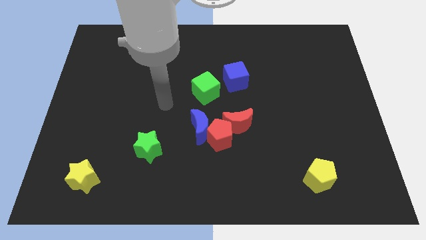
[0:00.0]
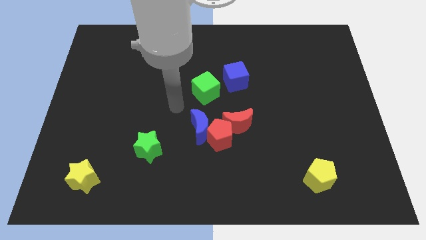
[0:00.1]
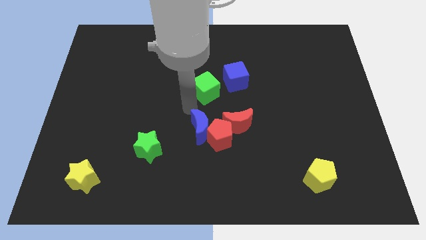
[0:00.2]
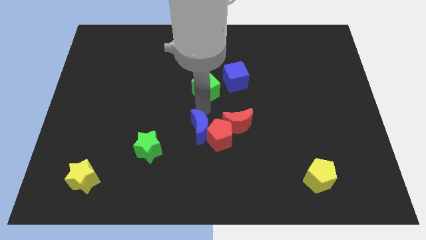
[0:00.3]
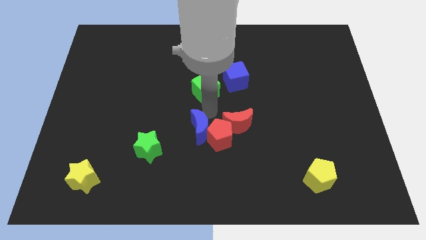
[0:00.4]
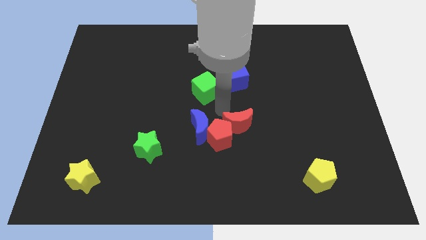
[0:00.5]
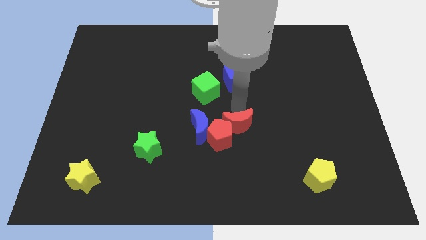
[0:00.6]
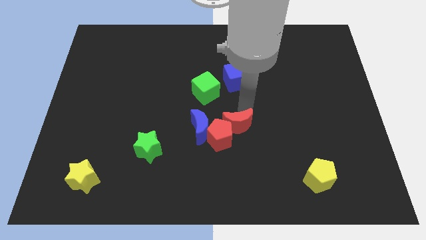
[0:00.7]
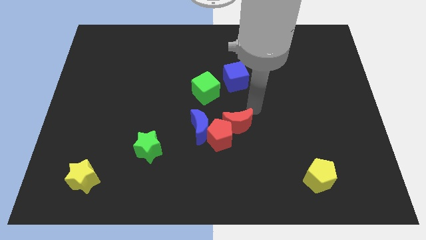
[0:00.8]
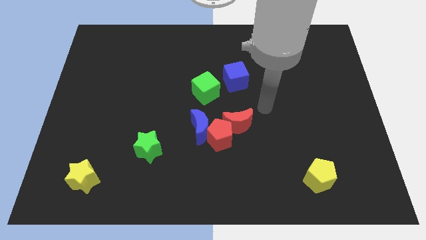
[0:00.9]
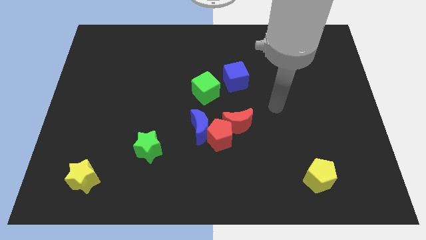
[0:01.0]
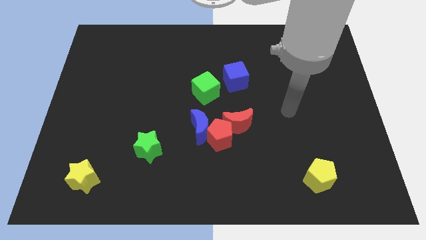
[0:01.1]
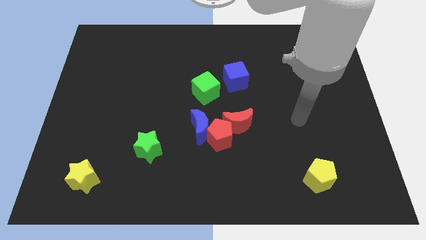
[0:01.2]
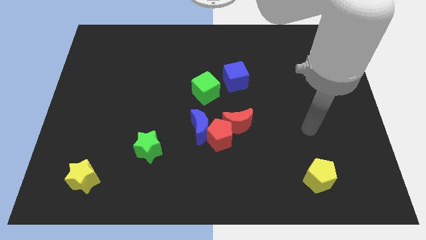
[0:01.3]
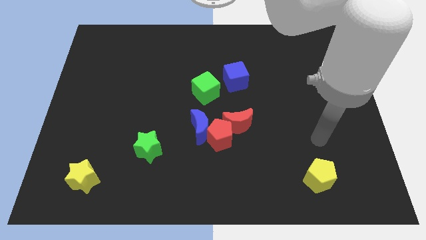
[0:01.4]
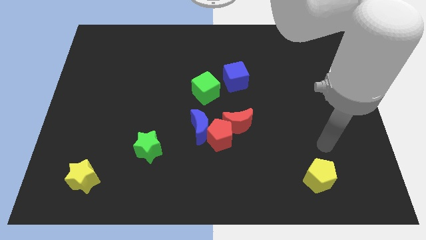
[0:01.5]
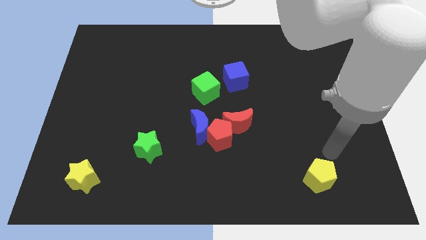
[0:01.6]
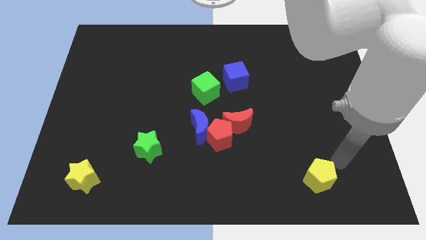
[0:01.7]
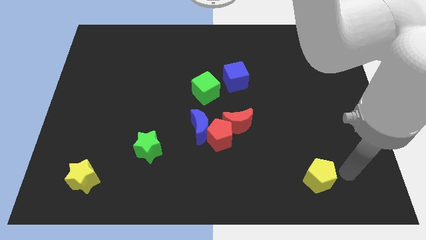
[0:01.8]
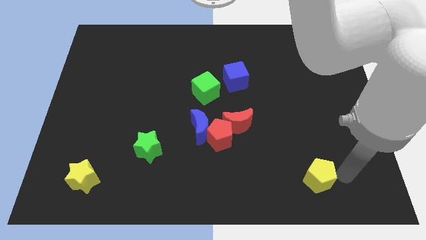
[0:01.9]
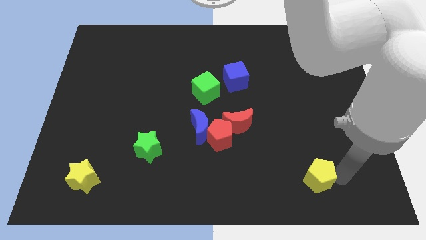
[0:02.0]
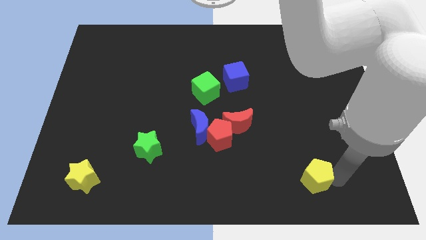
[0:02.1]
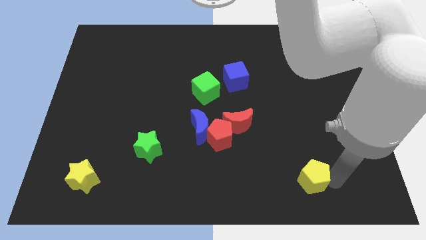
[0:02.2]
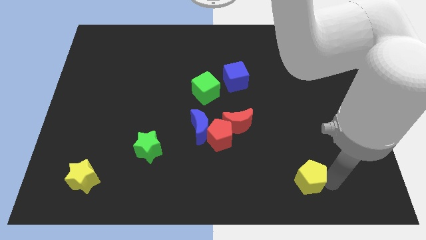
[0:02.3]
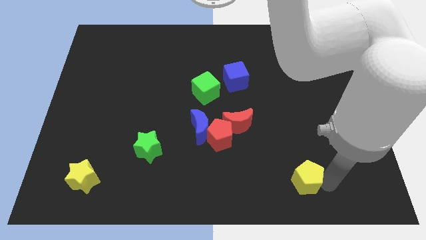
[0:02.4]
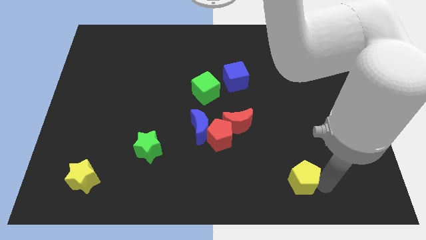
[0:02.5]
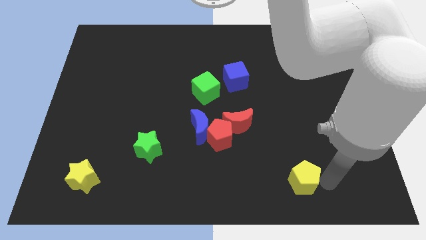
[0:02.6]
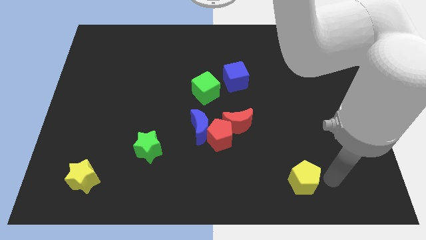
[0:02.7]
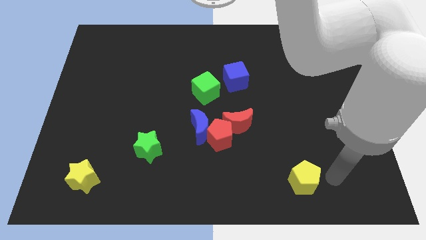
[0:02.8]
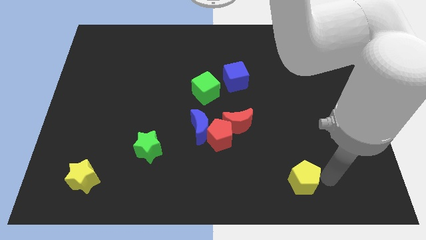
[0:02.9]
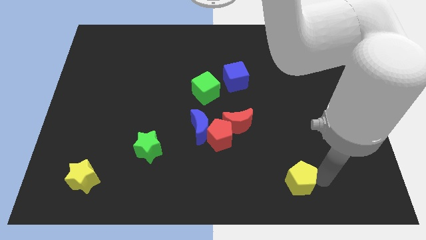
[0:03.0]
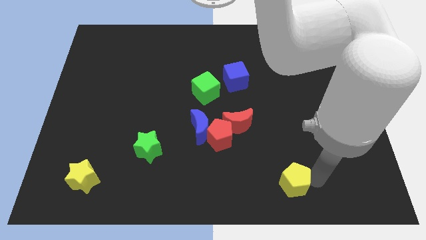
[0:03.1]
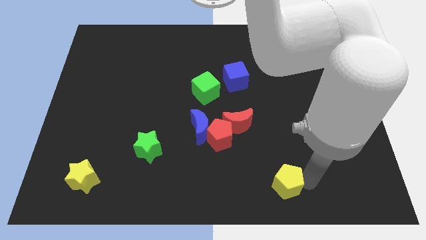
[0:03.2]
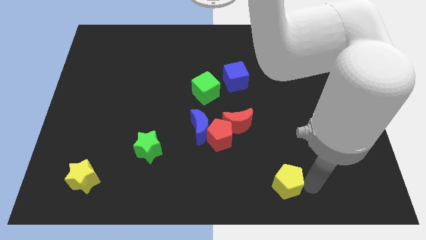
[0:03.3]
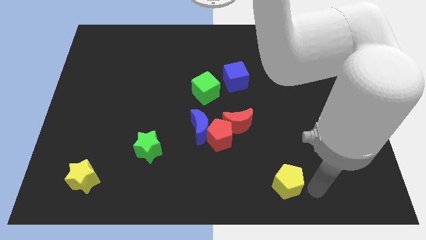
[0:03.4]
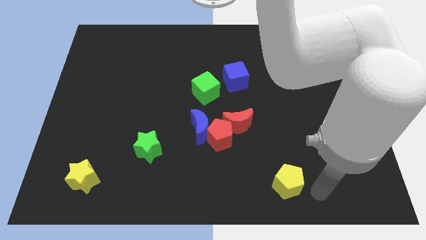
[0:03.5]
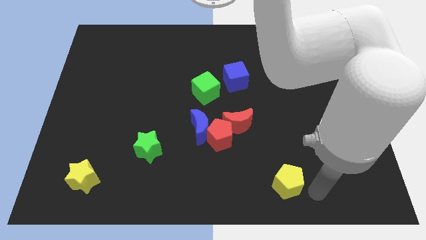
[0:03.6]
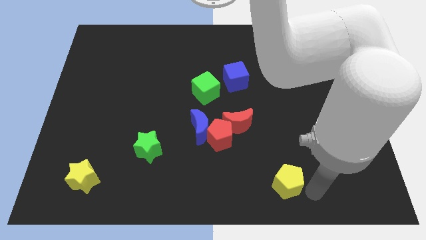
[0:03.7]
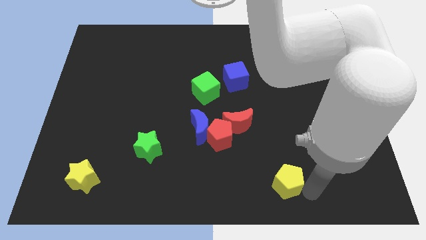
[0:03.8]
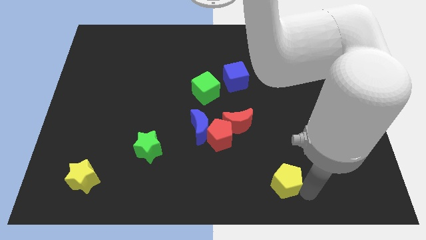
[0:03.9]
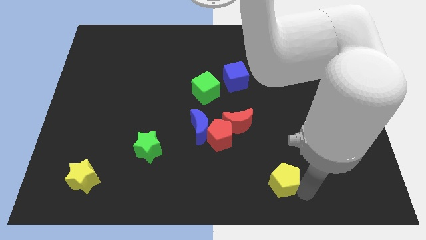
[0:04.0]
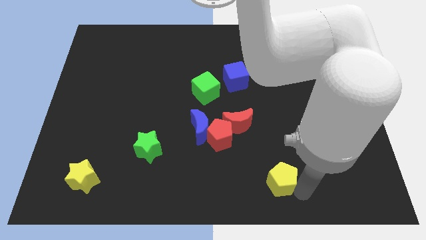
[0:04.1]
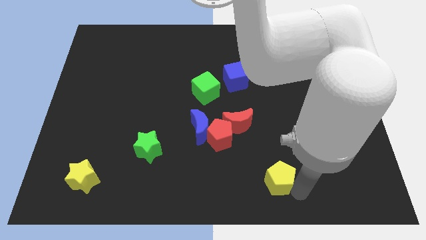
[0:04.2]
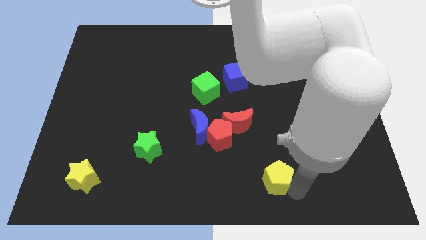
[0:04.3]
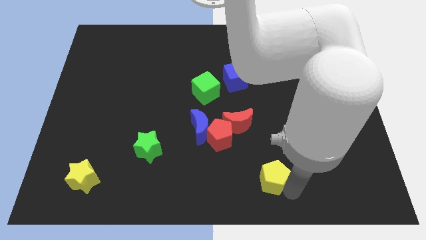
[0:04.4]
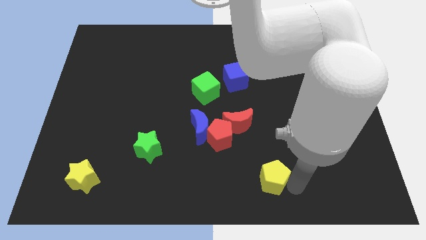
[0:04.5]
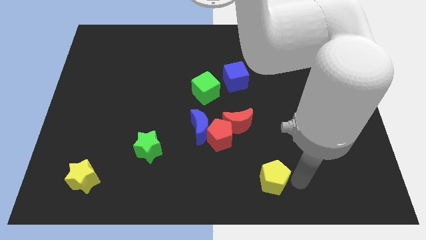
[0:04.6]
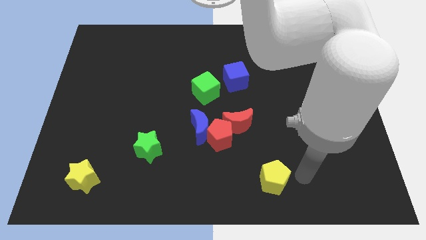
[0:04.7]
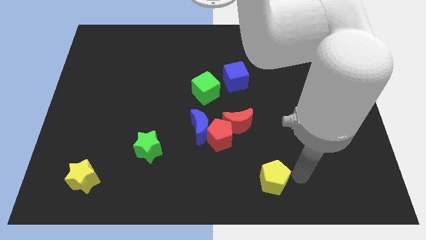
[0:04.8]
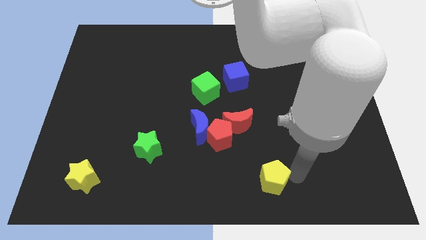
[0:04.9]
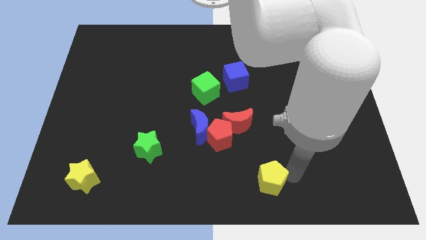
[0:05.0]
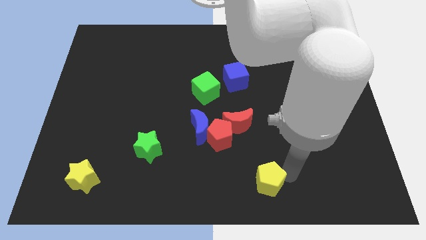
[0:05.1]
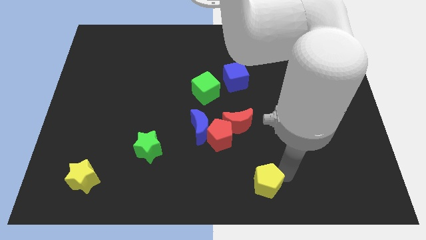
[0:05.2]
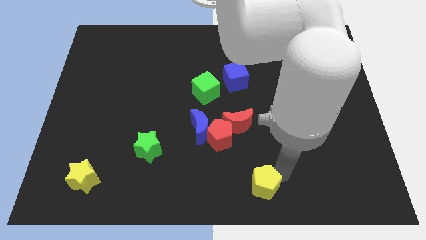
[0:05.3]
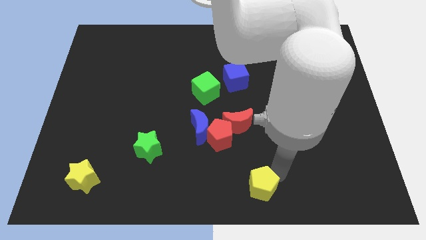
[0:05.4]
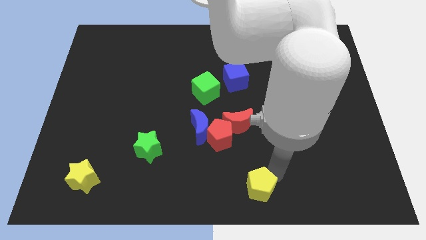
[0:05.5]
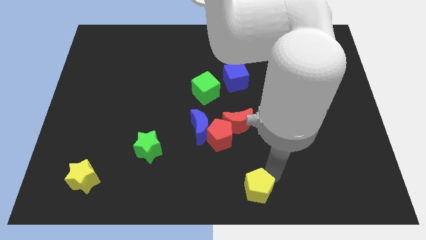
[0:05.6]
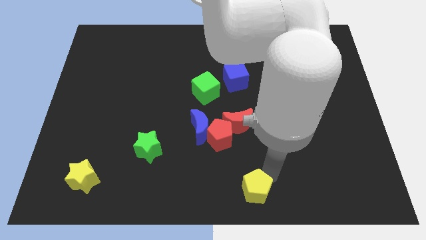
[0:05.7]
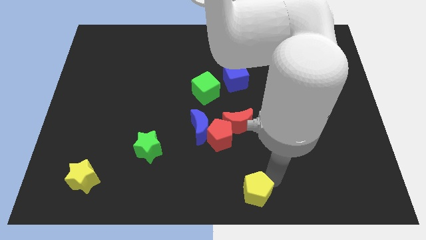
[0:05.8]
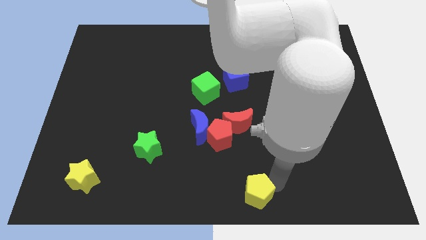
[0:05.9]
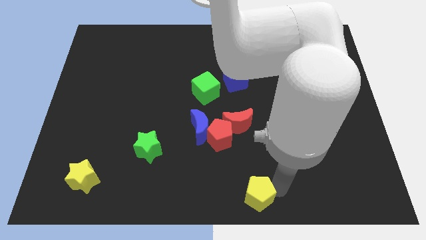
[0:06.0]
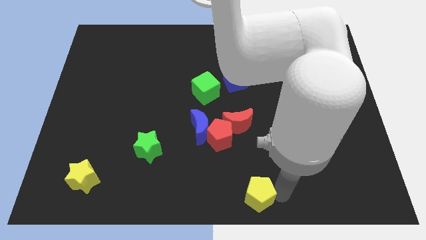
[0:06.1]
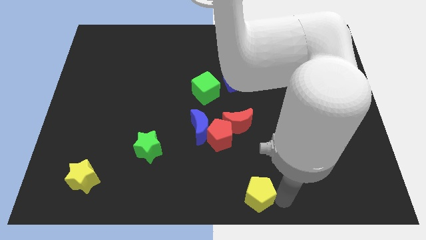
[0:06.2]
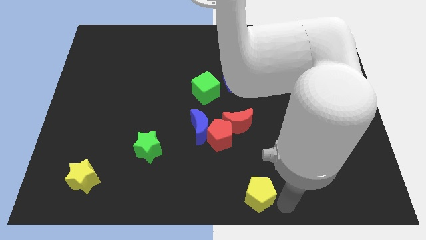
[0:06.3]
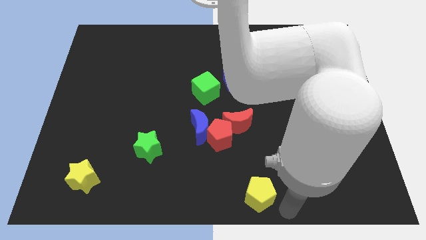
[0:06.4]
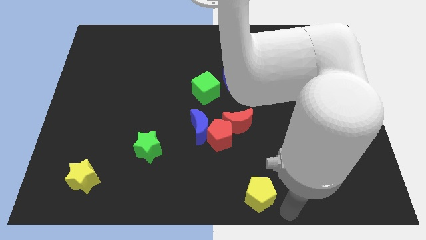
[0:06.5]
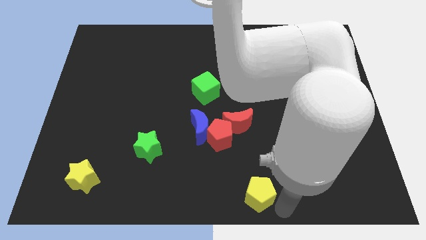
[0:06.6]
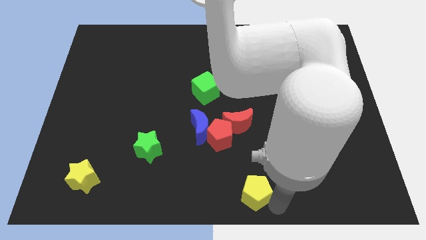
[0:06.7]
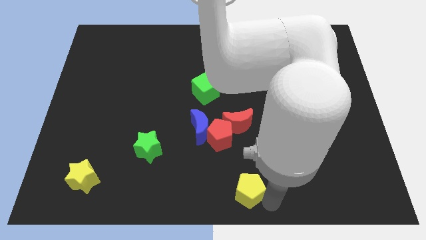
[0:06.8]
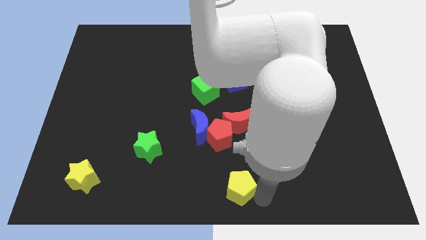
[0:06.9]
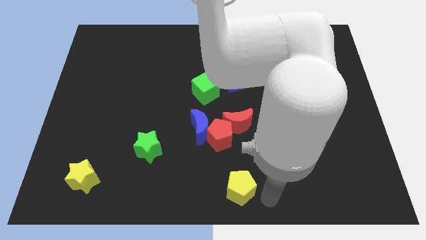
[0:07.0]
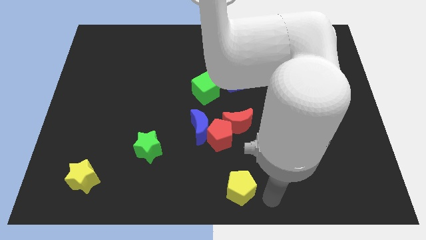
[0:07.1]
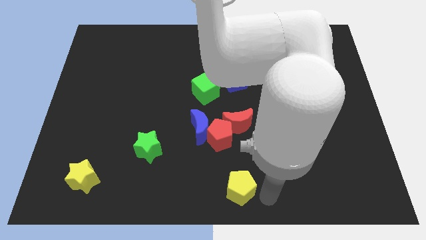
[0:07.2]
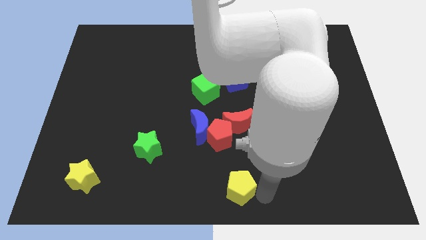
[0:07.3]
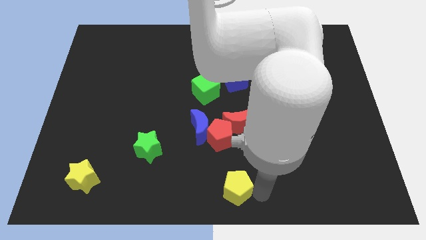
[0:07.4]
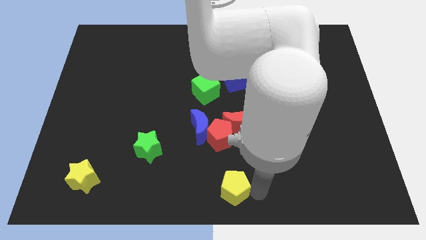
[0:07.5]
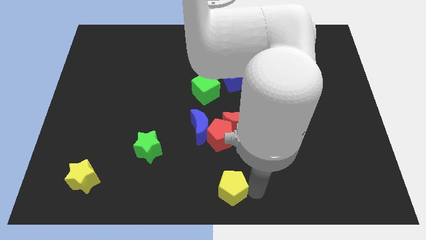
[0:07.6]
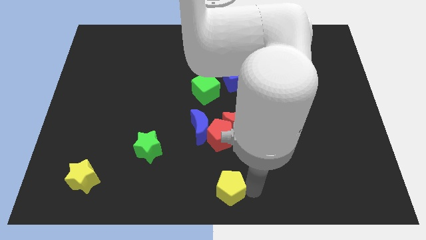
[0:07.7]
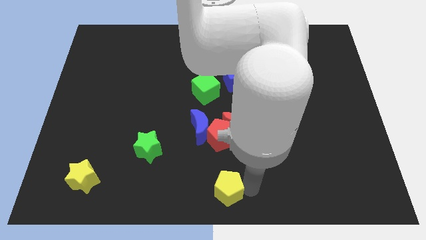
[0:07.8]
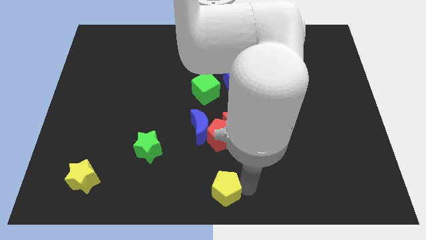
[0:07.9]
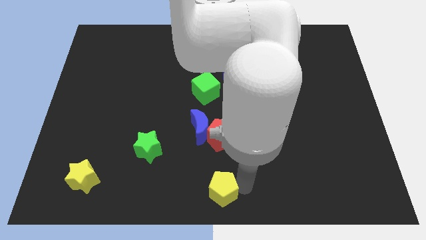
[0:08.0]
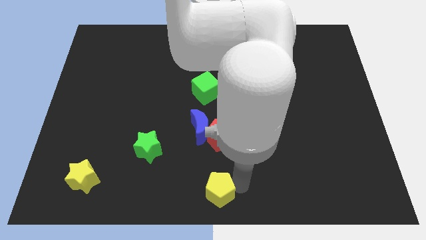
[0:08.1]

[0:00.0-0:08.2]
slide the yellow pentagon to the left

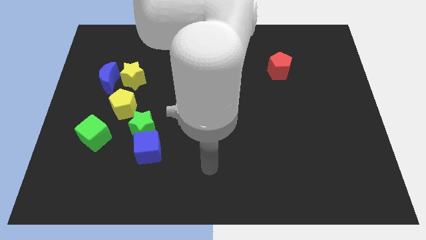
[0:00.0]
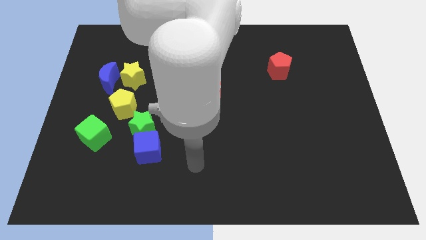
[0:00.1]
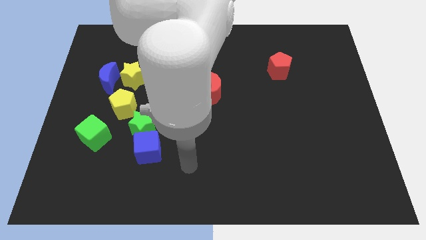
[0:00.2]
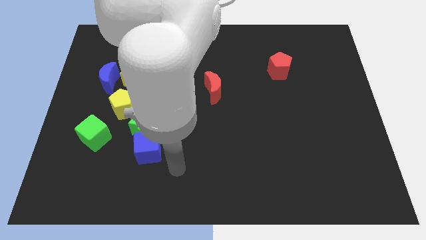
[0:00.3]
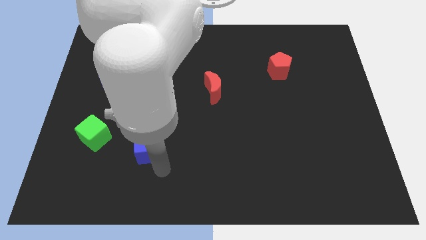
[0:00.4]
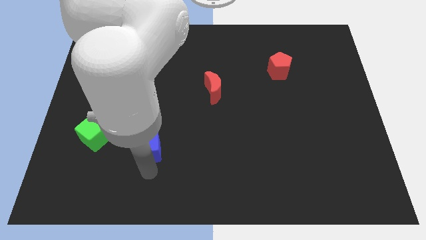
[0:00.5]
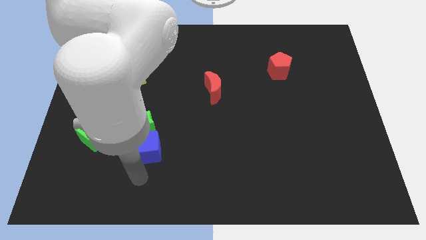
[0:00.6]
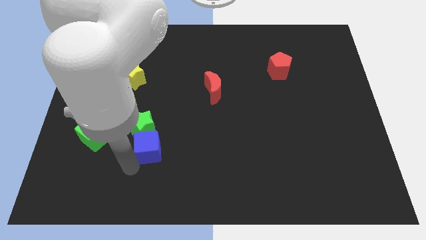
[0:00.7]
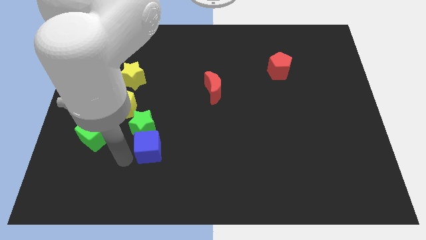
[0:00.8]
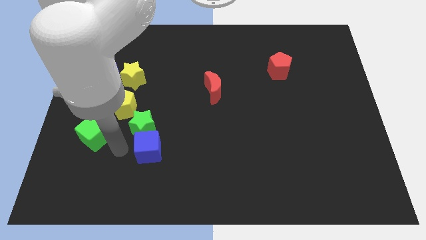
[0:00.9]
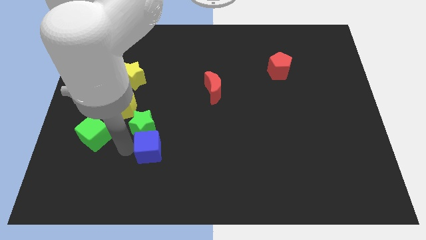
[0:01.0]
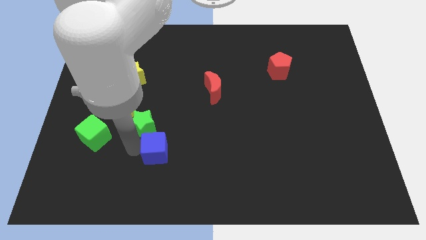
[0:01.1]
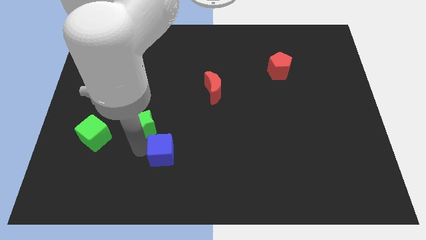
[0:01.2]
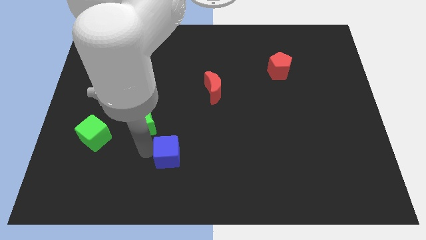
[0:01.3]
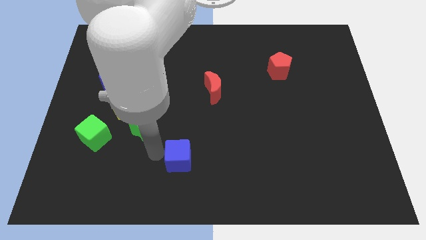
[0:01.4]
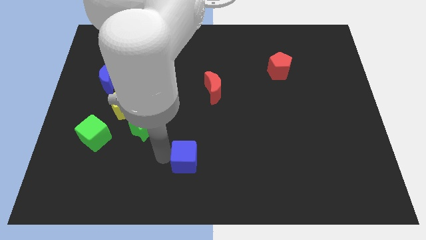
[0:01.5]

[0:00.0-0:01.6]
move the blue cube to the right a little bit
